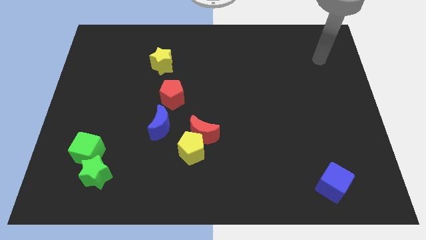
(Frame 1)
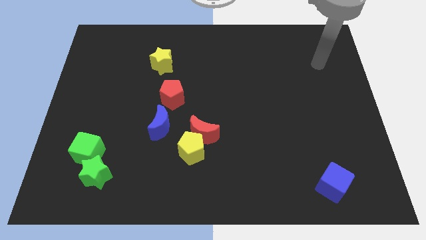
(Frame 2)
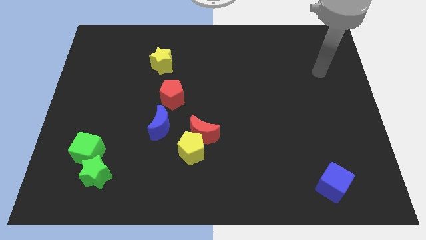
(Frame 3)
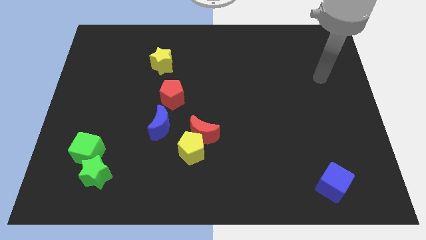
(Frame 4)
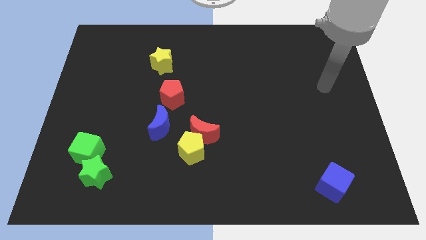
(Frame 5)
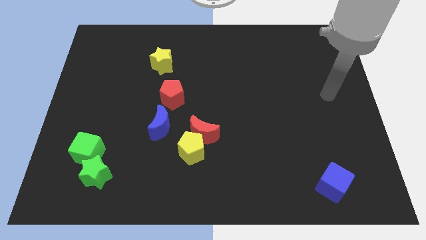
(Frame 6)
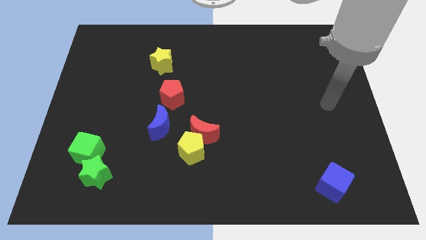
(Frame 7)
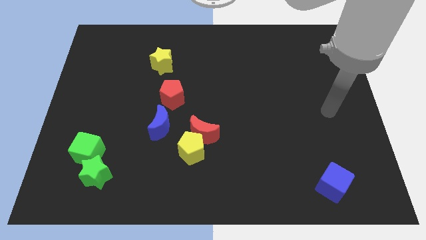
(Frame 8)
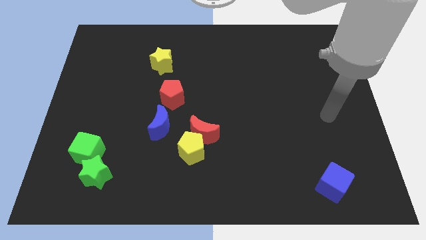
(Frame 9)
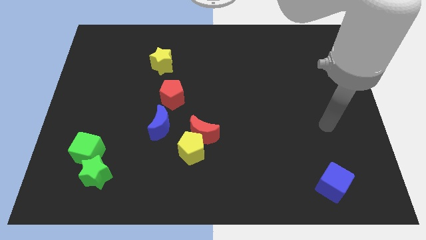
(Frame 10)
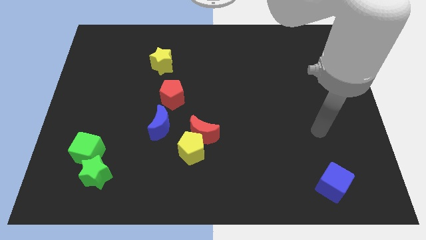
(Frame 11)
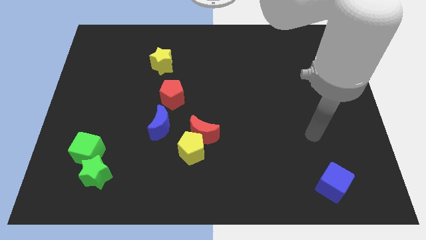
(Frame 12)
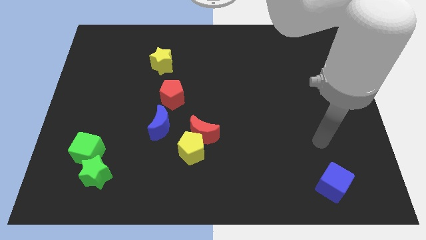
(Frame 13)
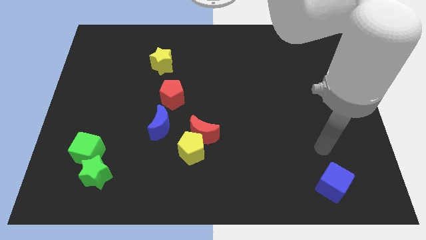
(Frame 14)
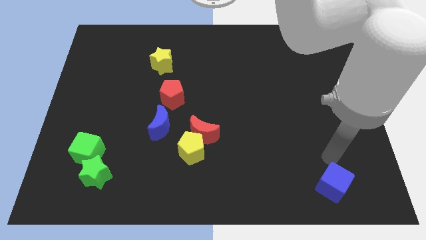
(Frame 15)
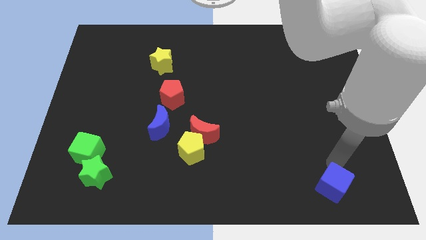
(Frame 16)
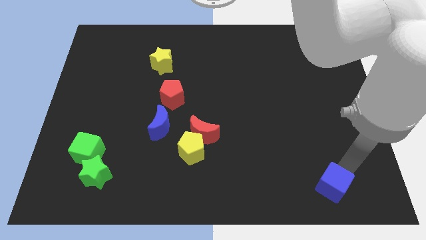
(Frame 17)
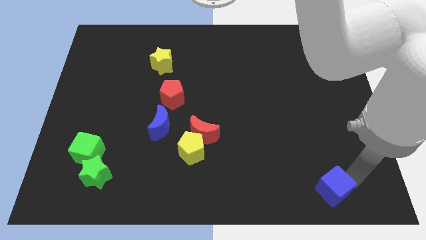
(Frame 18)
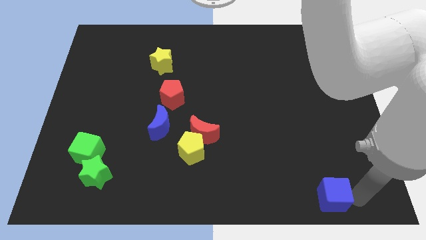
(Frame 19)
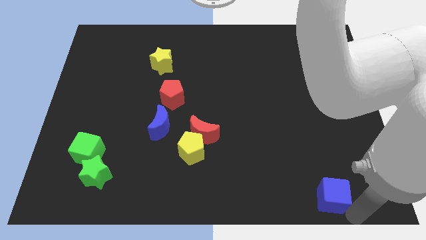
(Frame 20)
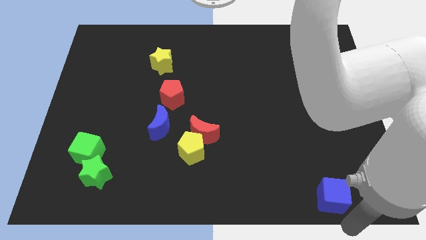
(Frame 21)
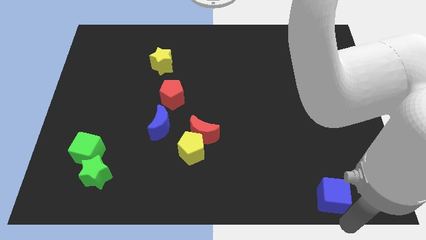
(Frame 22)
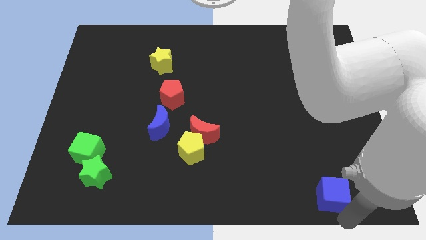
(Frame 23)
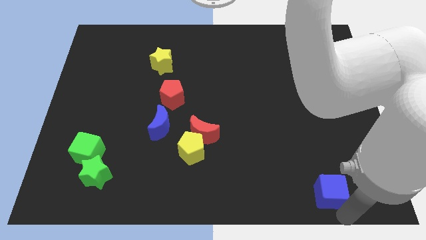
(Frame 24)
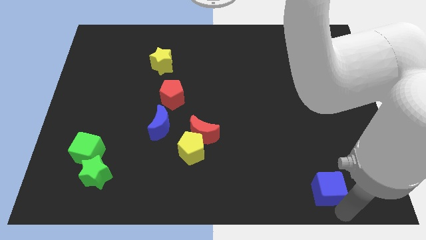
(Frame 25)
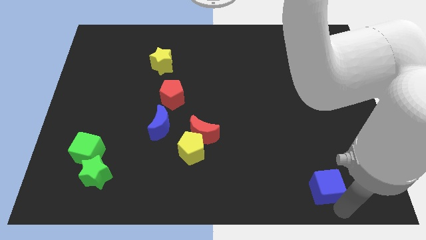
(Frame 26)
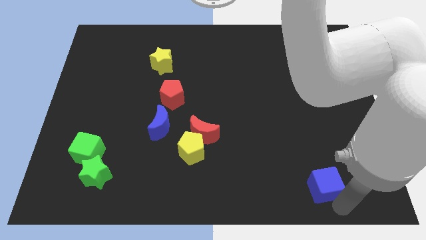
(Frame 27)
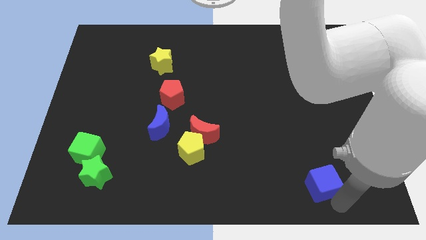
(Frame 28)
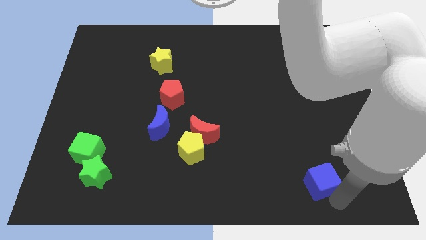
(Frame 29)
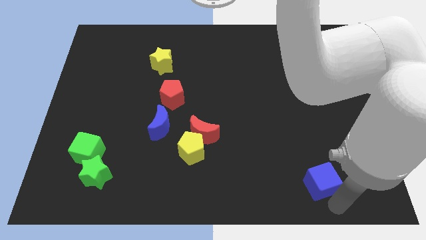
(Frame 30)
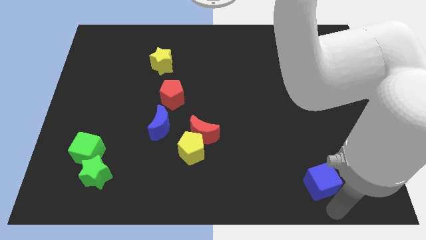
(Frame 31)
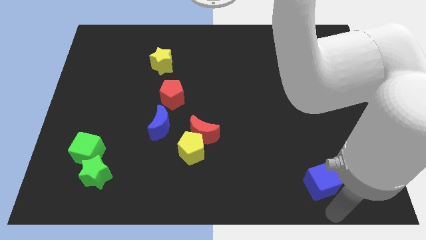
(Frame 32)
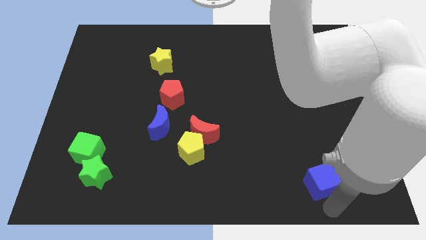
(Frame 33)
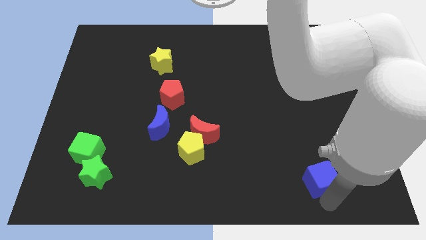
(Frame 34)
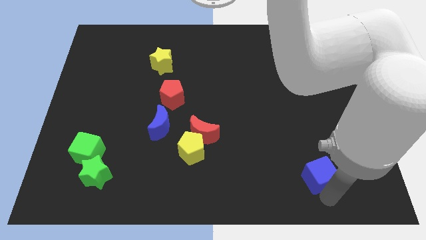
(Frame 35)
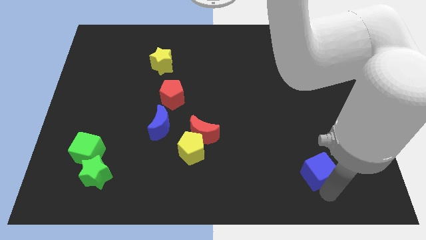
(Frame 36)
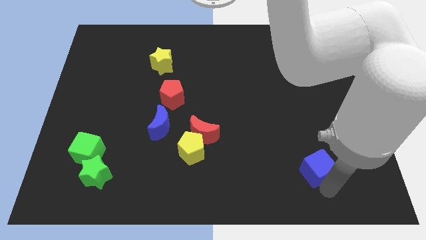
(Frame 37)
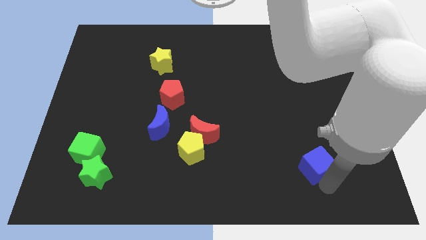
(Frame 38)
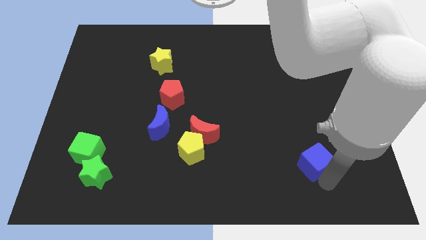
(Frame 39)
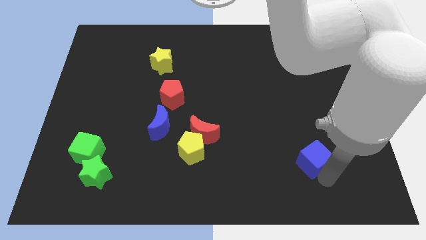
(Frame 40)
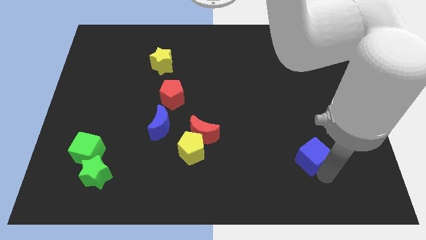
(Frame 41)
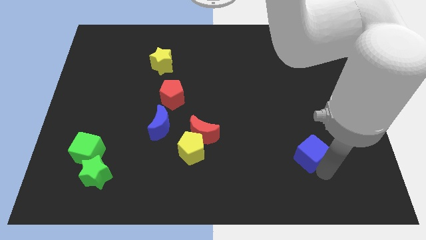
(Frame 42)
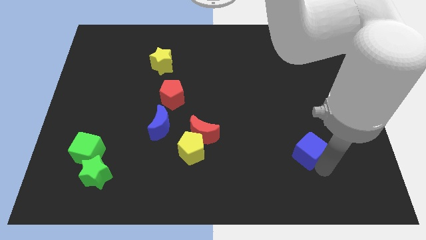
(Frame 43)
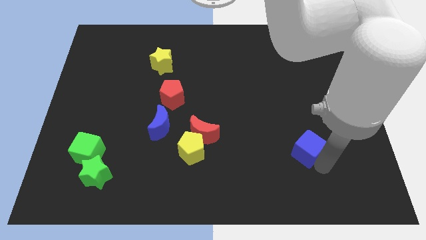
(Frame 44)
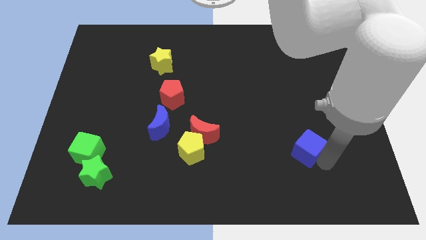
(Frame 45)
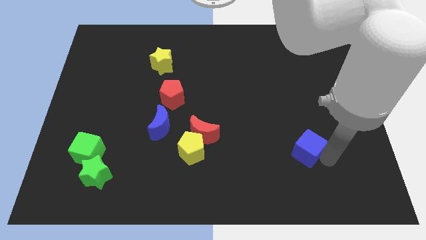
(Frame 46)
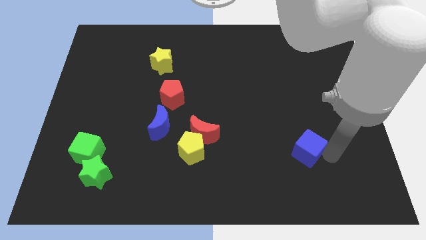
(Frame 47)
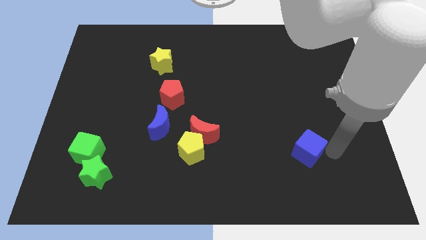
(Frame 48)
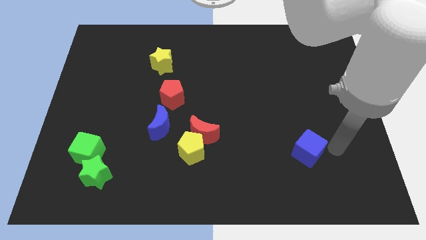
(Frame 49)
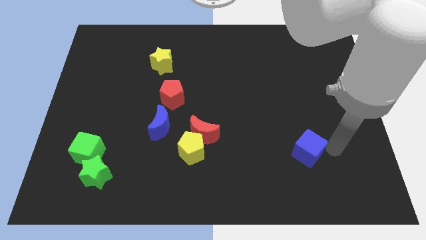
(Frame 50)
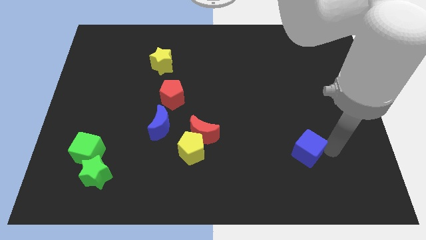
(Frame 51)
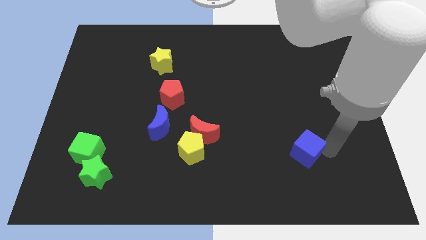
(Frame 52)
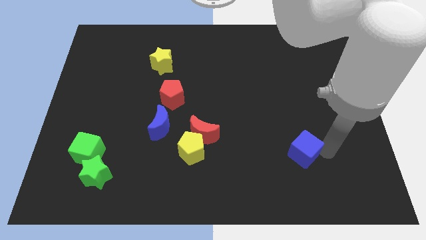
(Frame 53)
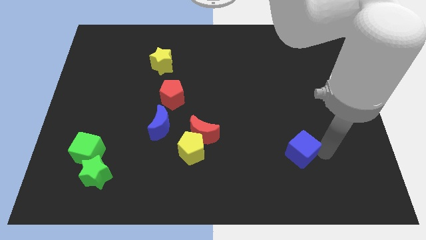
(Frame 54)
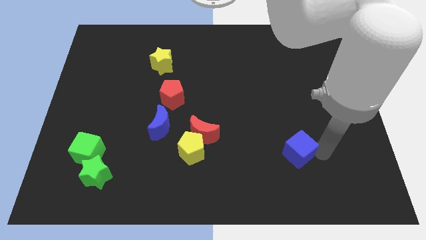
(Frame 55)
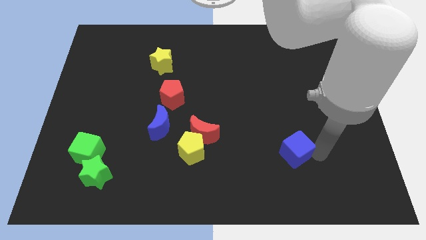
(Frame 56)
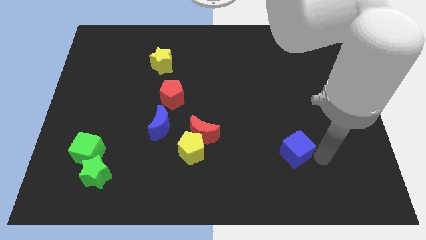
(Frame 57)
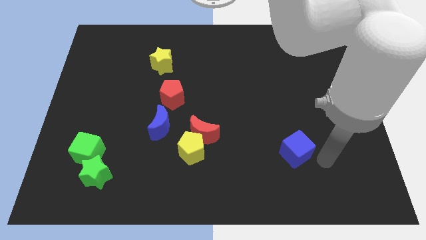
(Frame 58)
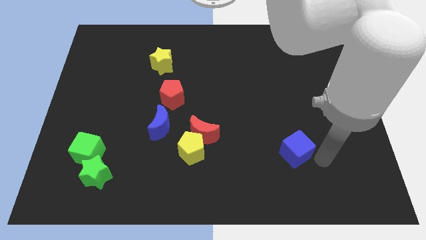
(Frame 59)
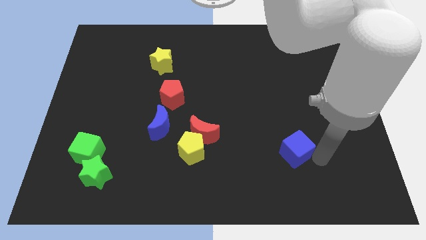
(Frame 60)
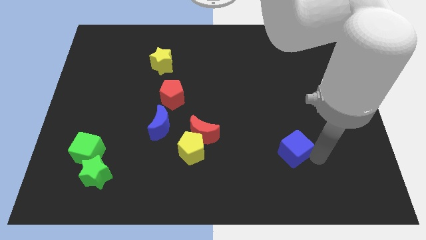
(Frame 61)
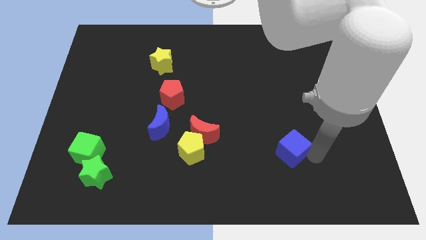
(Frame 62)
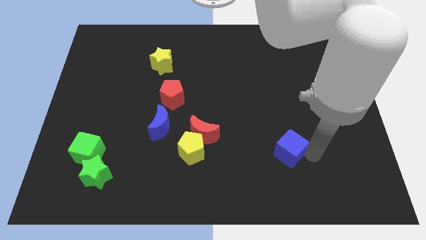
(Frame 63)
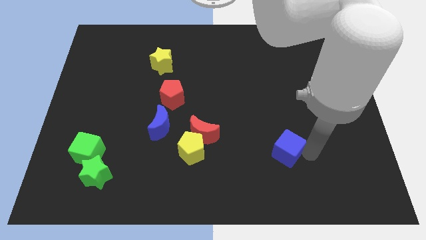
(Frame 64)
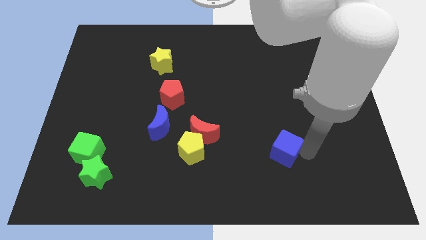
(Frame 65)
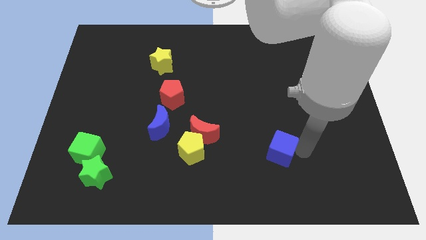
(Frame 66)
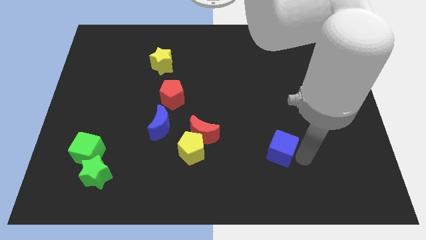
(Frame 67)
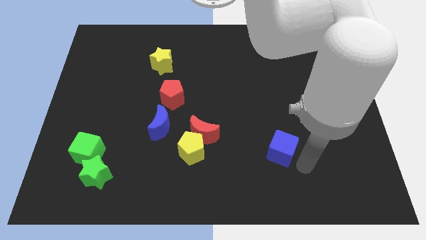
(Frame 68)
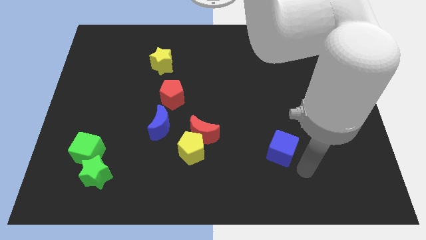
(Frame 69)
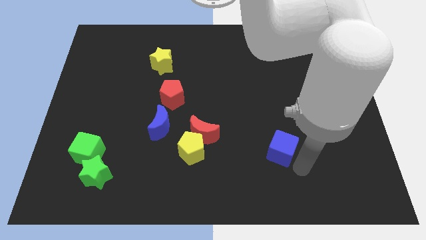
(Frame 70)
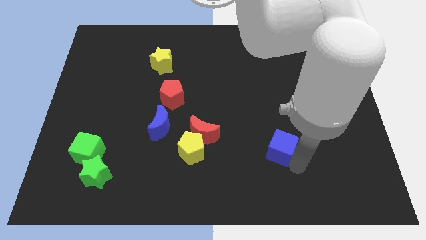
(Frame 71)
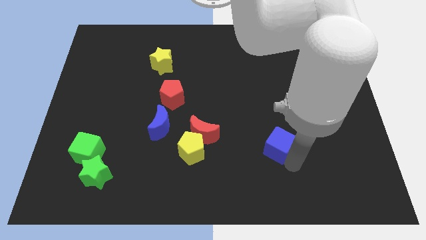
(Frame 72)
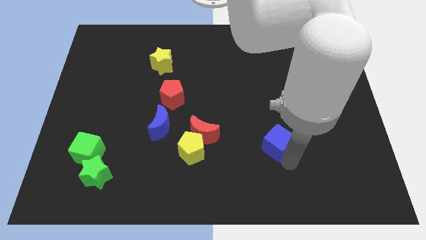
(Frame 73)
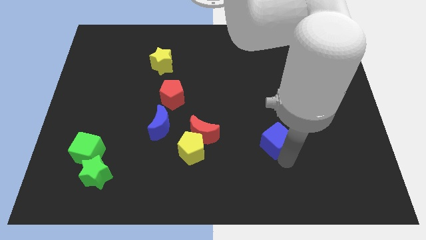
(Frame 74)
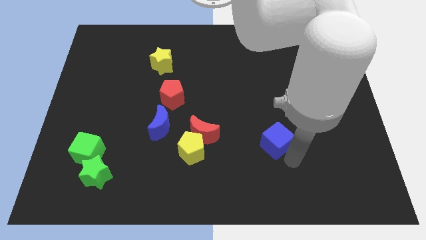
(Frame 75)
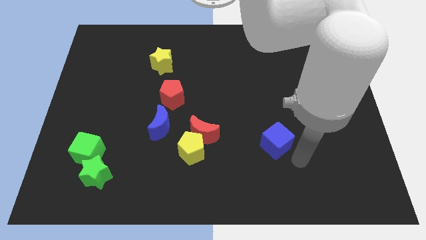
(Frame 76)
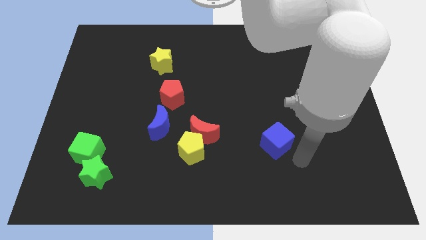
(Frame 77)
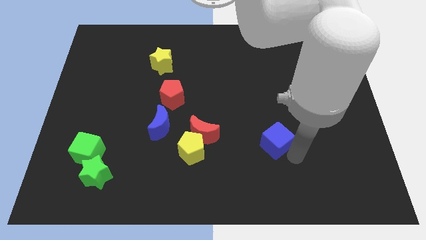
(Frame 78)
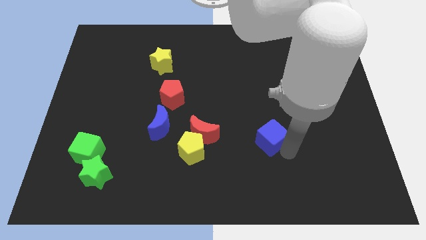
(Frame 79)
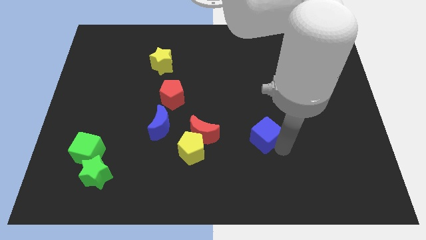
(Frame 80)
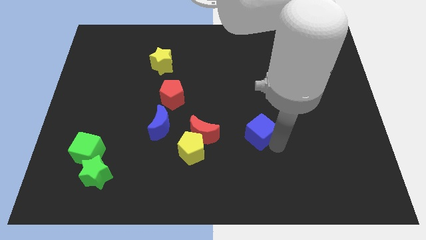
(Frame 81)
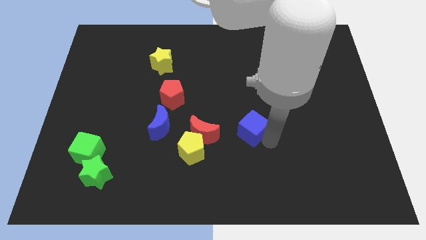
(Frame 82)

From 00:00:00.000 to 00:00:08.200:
move the blue cube to the middle of the board
